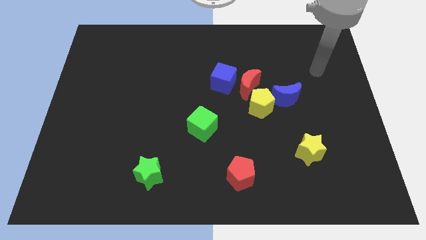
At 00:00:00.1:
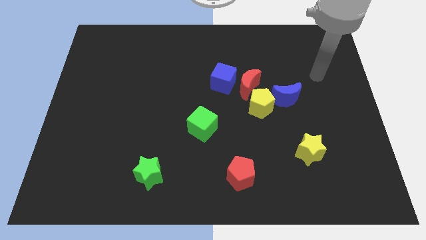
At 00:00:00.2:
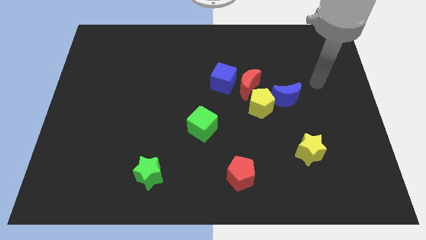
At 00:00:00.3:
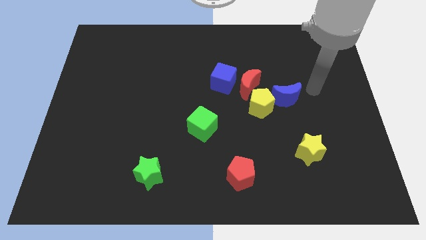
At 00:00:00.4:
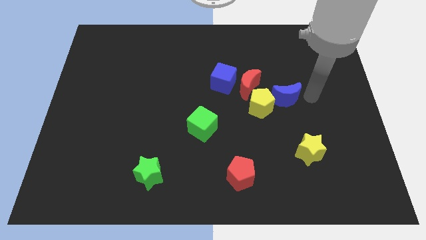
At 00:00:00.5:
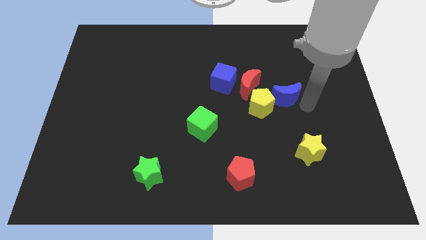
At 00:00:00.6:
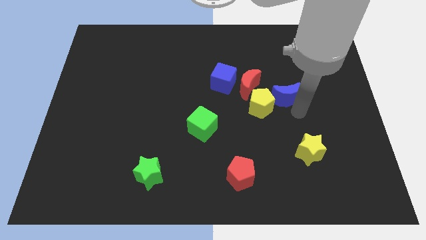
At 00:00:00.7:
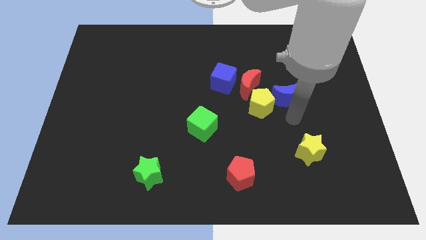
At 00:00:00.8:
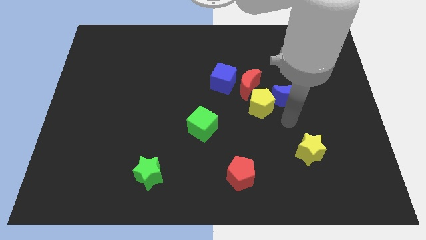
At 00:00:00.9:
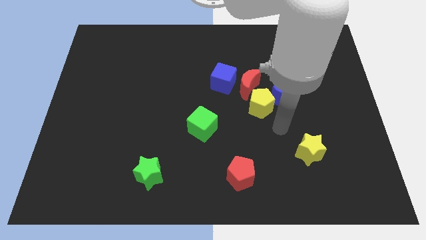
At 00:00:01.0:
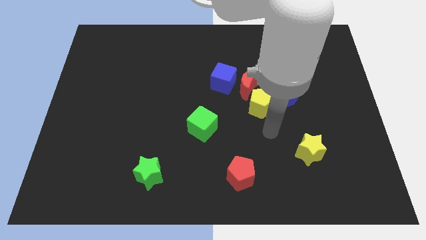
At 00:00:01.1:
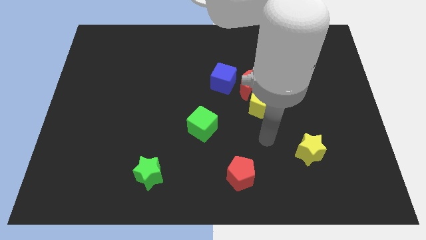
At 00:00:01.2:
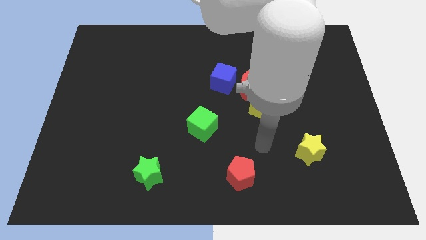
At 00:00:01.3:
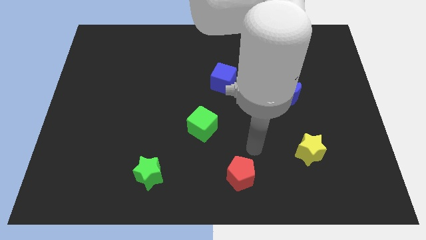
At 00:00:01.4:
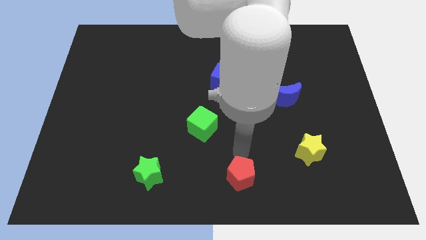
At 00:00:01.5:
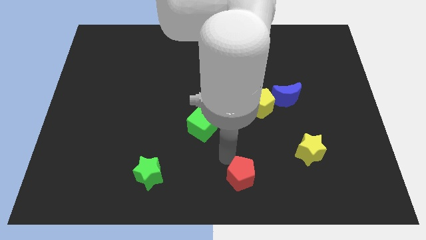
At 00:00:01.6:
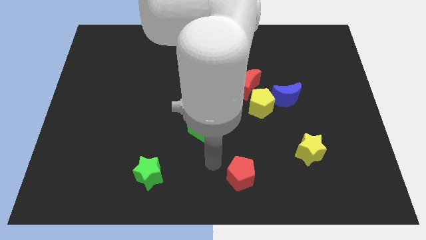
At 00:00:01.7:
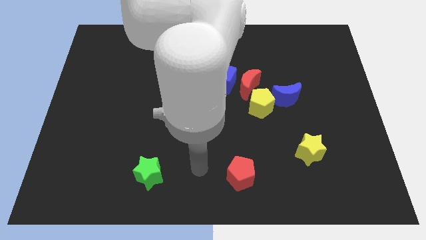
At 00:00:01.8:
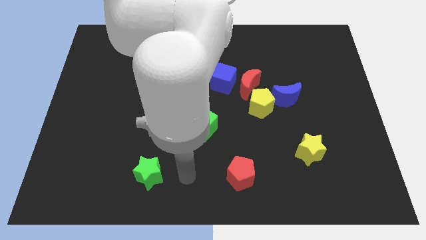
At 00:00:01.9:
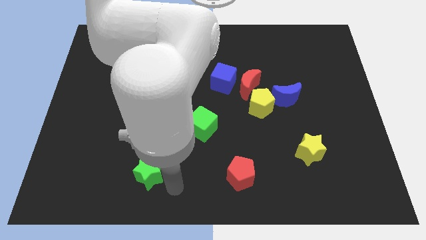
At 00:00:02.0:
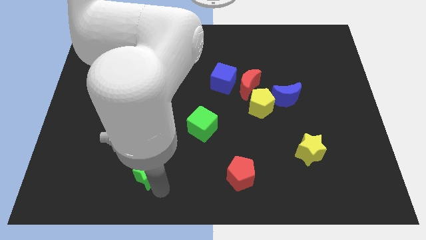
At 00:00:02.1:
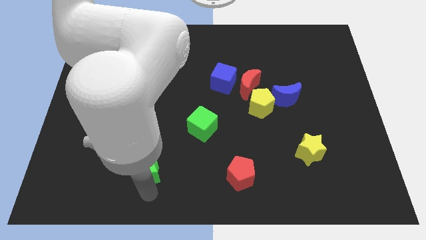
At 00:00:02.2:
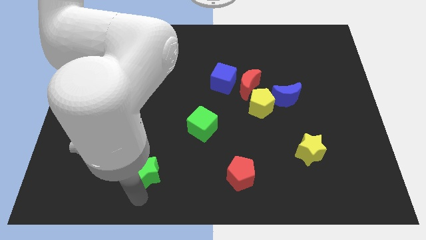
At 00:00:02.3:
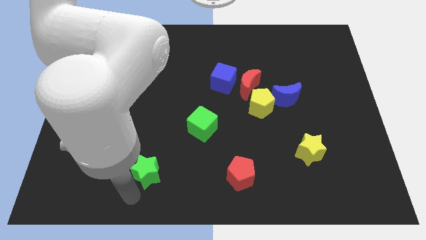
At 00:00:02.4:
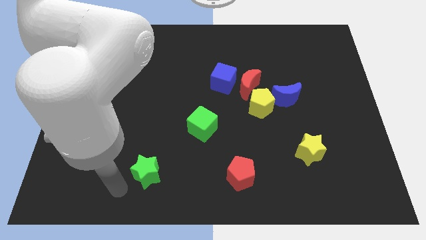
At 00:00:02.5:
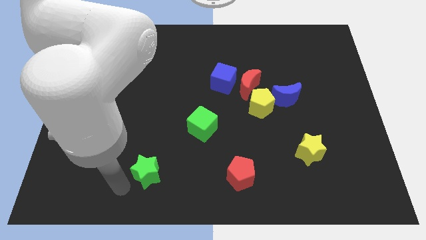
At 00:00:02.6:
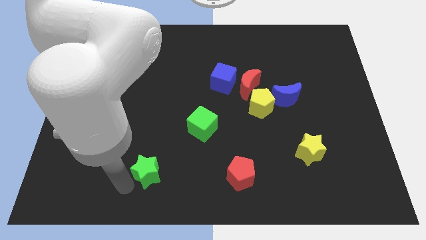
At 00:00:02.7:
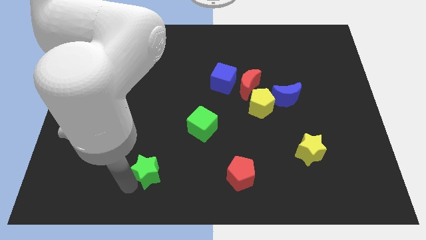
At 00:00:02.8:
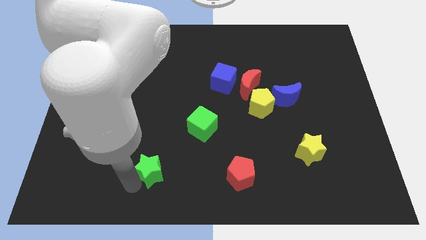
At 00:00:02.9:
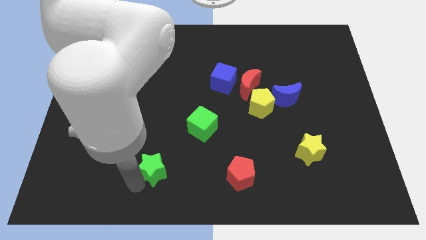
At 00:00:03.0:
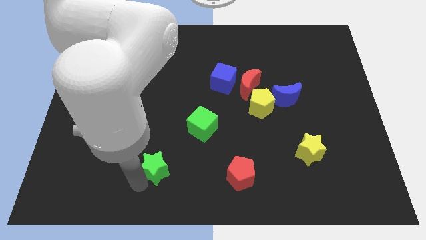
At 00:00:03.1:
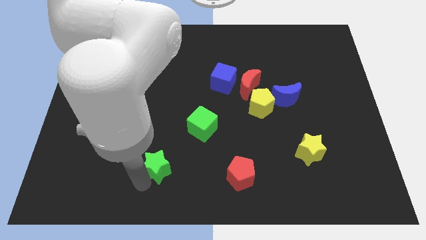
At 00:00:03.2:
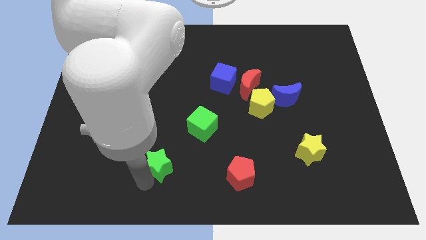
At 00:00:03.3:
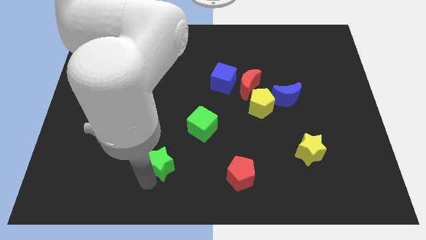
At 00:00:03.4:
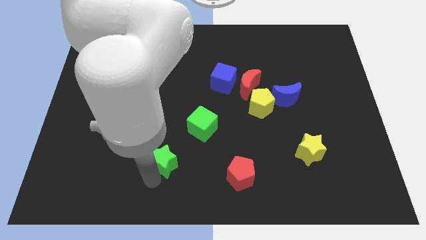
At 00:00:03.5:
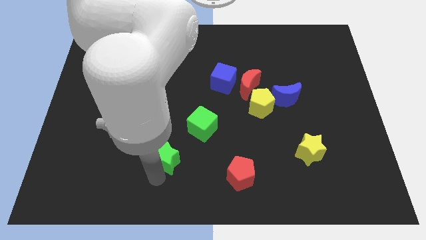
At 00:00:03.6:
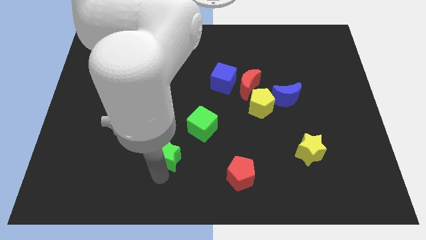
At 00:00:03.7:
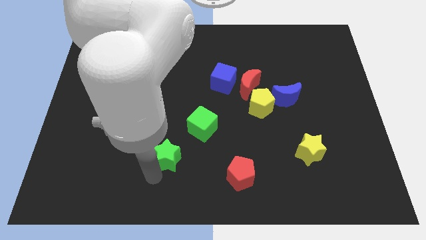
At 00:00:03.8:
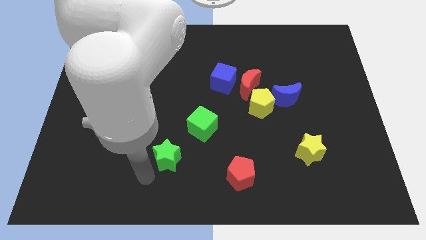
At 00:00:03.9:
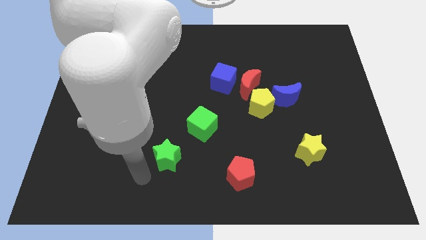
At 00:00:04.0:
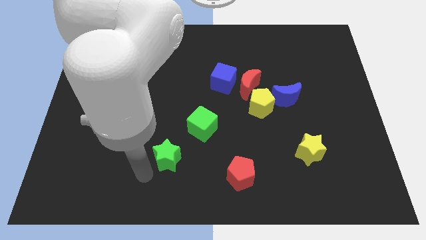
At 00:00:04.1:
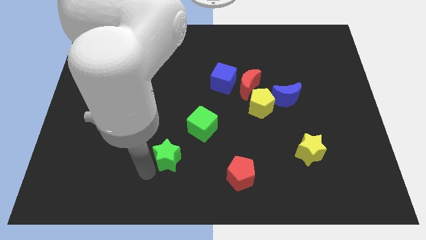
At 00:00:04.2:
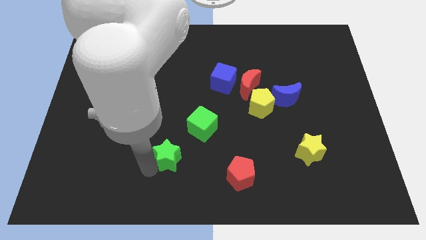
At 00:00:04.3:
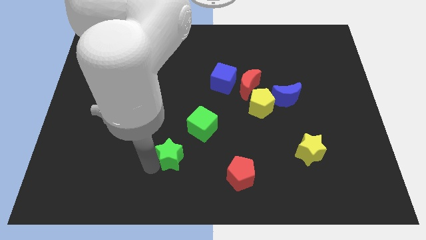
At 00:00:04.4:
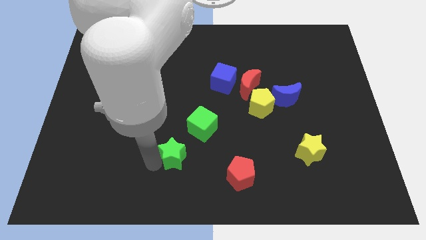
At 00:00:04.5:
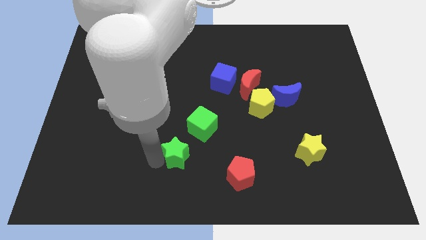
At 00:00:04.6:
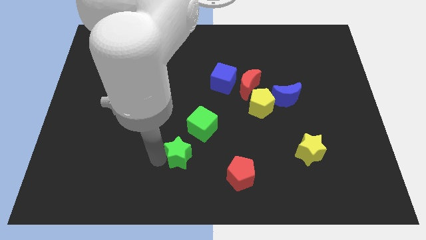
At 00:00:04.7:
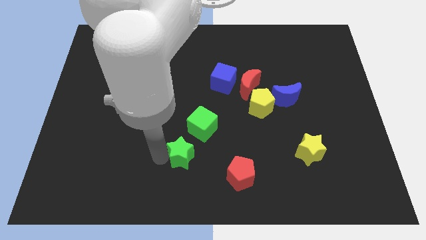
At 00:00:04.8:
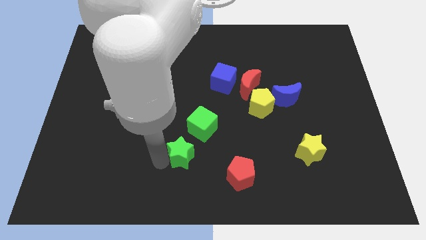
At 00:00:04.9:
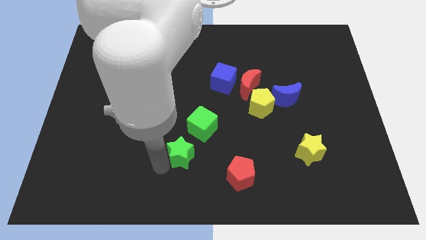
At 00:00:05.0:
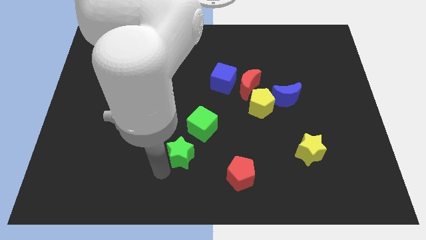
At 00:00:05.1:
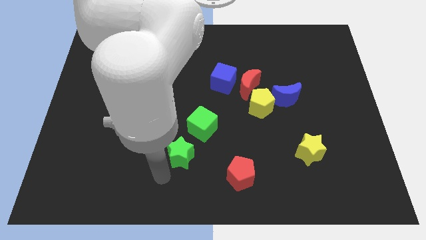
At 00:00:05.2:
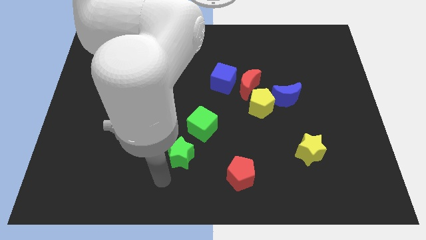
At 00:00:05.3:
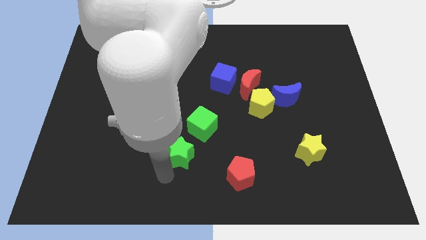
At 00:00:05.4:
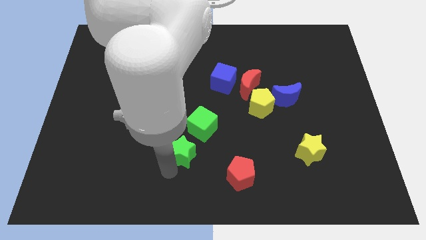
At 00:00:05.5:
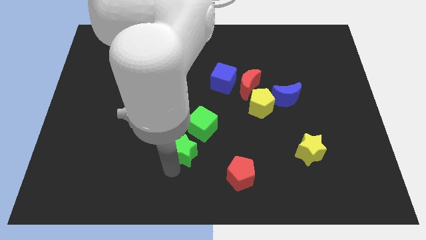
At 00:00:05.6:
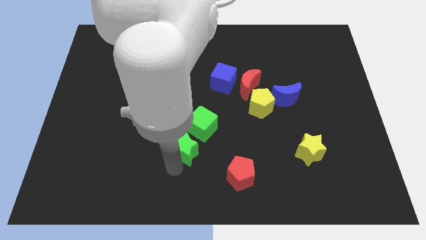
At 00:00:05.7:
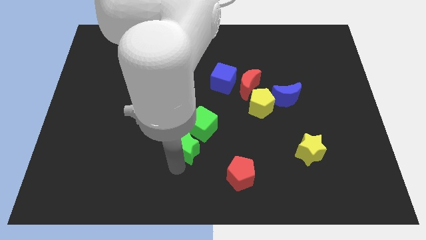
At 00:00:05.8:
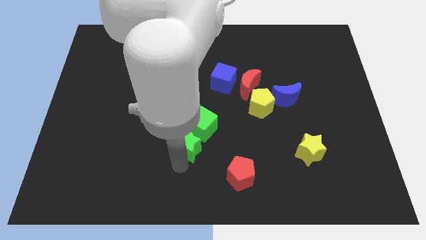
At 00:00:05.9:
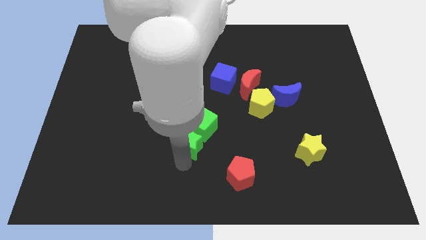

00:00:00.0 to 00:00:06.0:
put the green star next to the green cube
